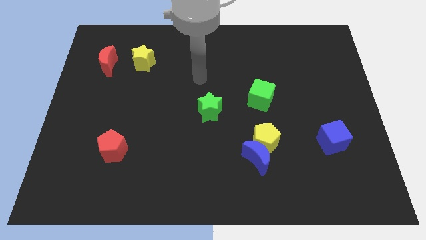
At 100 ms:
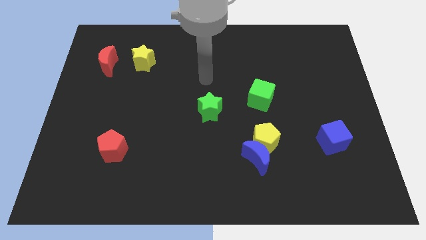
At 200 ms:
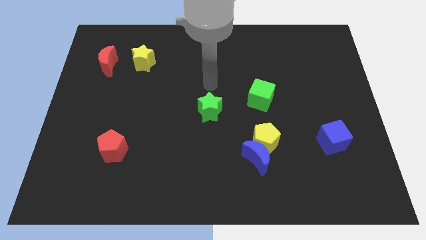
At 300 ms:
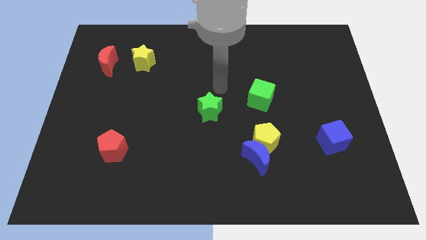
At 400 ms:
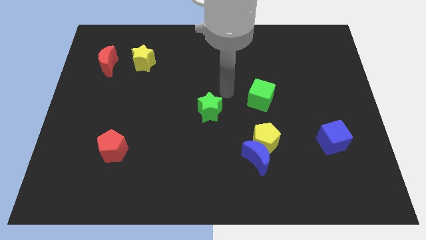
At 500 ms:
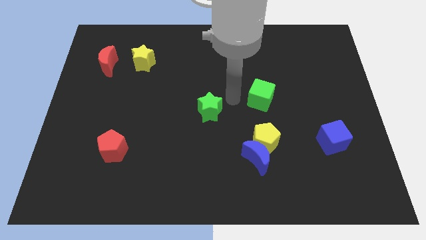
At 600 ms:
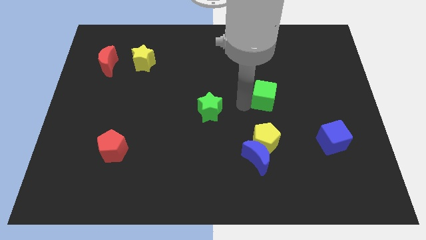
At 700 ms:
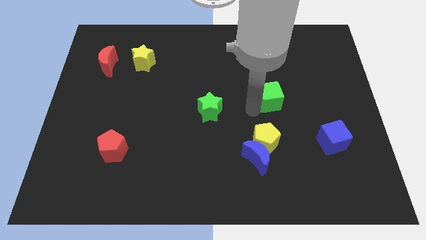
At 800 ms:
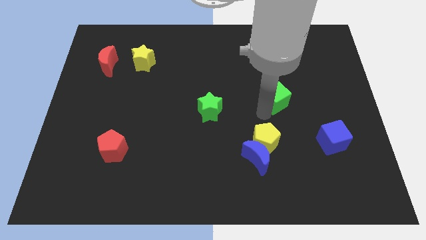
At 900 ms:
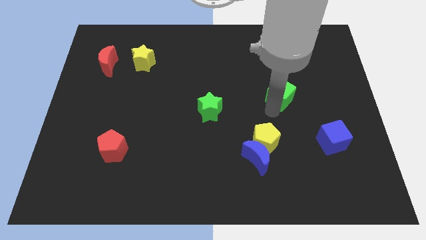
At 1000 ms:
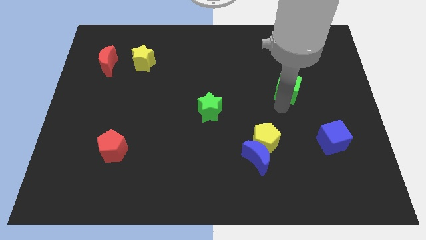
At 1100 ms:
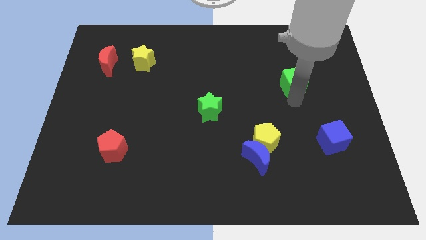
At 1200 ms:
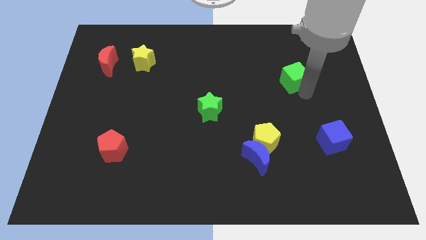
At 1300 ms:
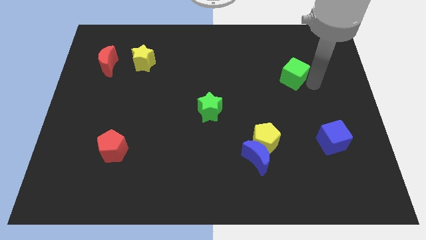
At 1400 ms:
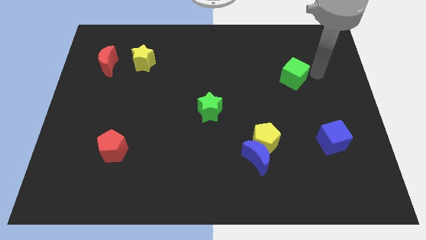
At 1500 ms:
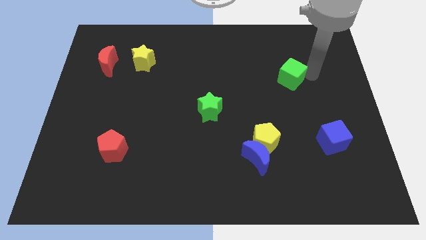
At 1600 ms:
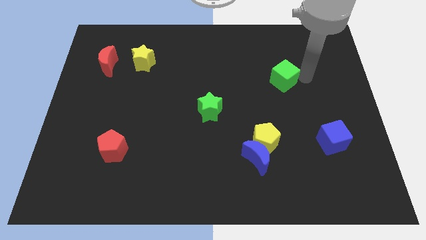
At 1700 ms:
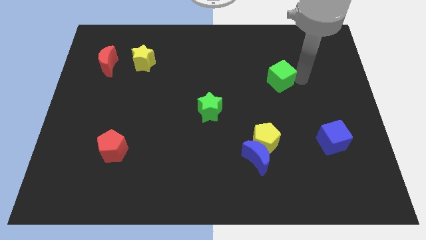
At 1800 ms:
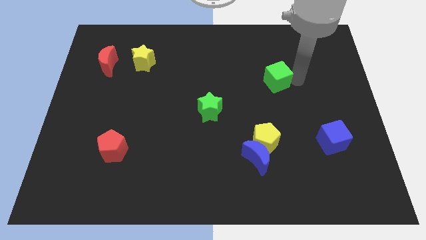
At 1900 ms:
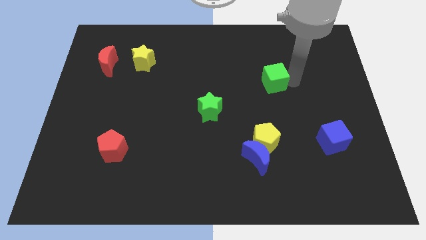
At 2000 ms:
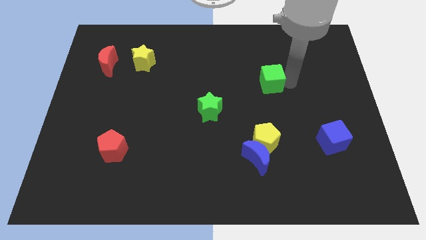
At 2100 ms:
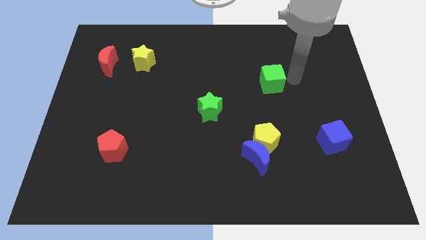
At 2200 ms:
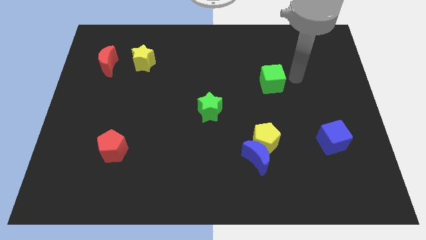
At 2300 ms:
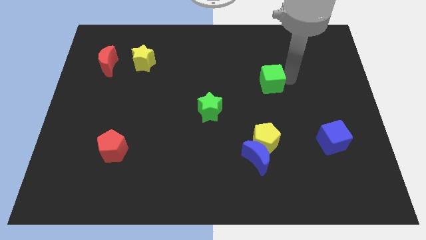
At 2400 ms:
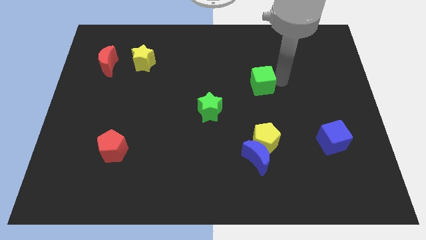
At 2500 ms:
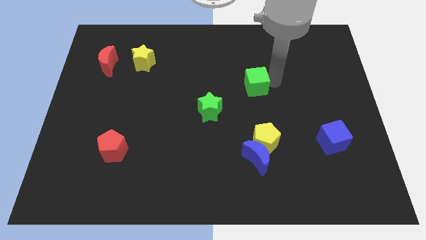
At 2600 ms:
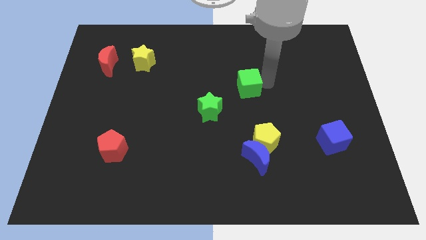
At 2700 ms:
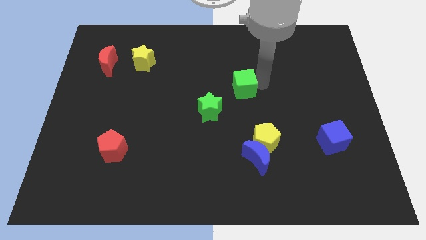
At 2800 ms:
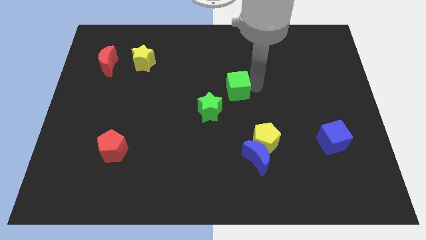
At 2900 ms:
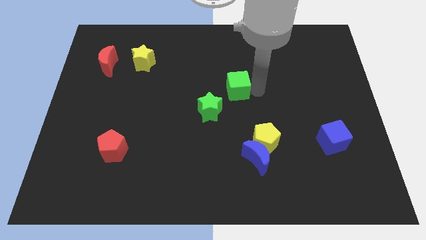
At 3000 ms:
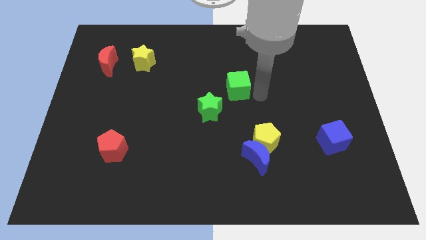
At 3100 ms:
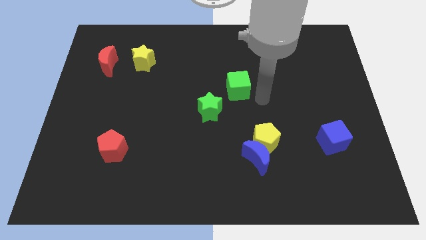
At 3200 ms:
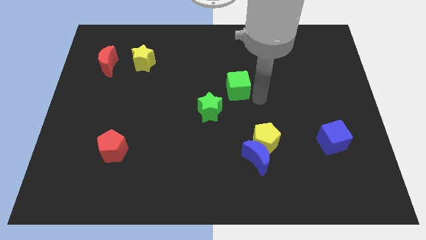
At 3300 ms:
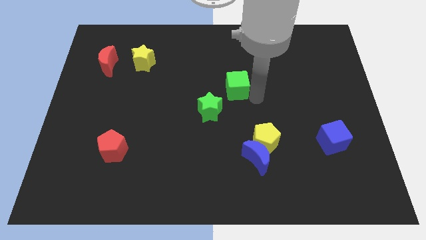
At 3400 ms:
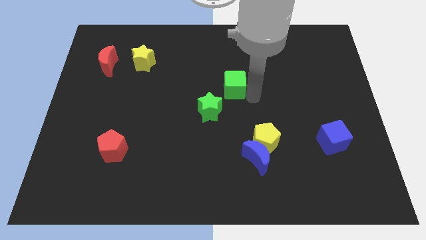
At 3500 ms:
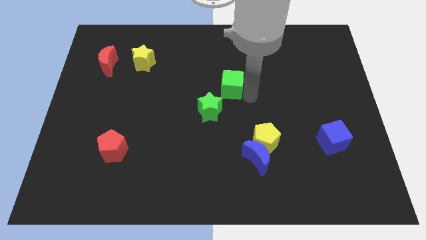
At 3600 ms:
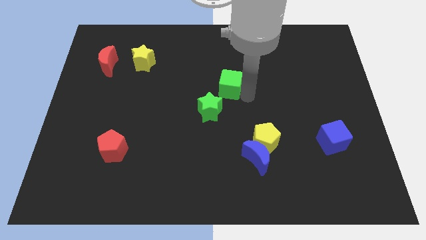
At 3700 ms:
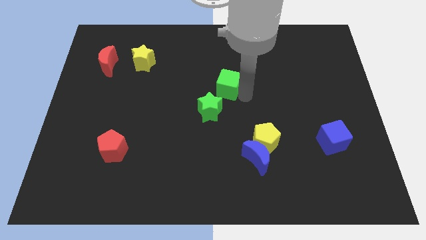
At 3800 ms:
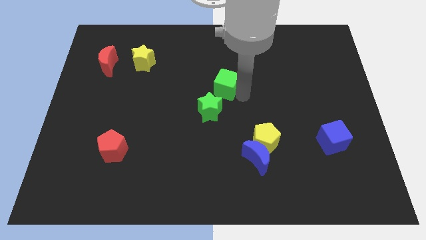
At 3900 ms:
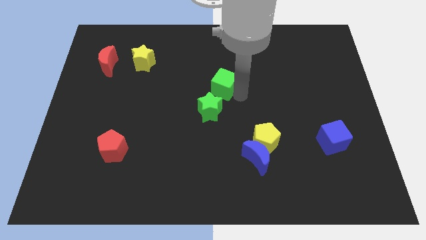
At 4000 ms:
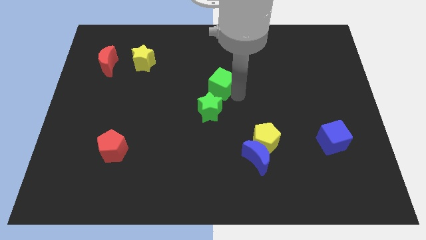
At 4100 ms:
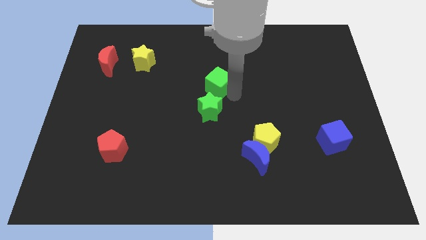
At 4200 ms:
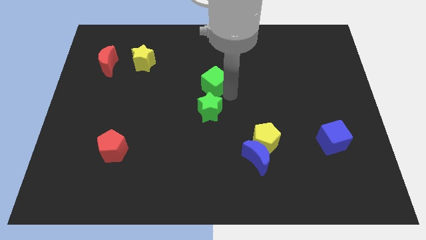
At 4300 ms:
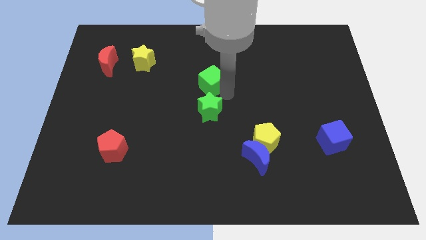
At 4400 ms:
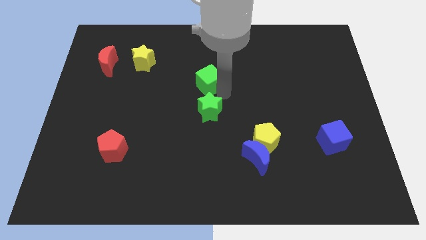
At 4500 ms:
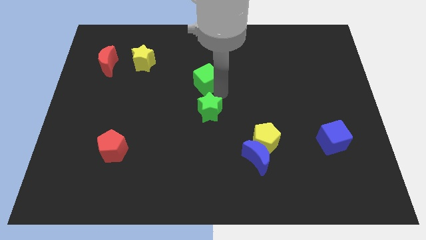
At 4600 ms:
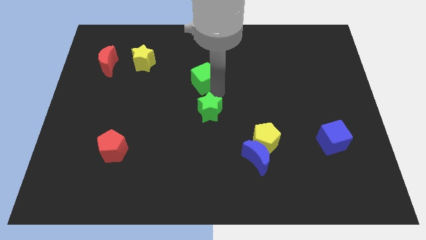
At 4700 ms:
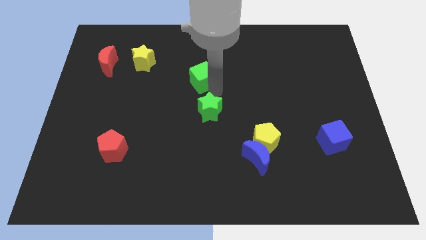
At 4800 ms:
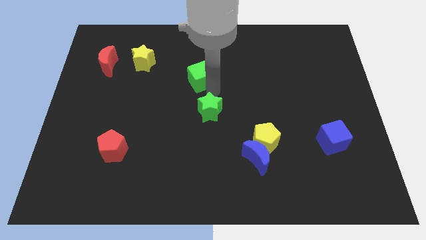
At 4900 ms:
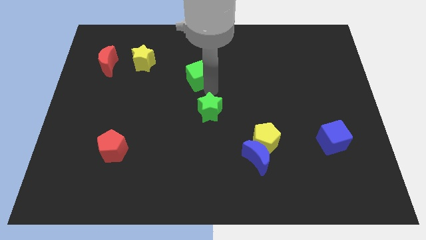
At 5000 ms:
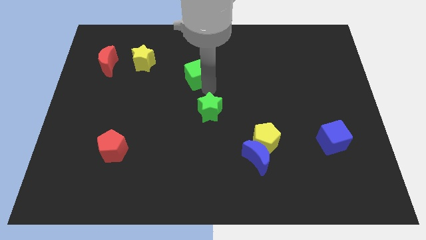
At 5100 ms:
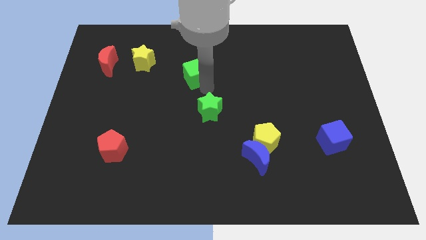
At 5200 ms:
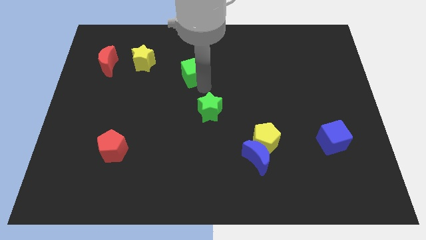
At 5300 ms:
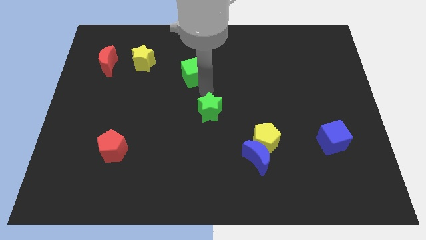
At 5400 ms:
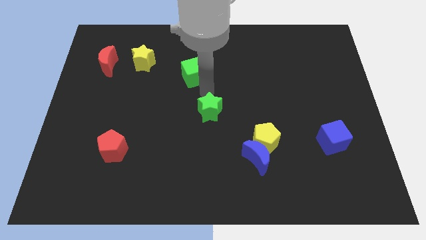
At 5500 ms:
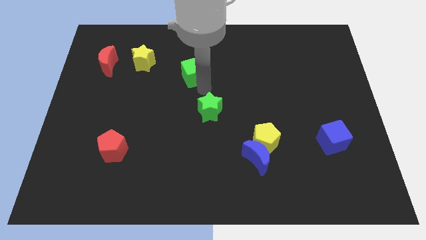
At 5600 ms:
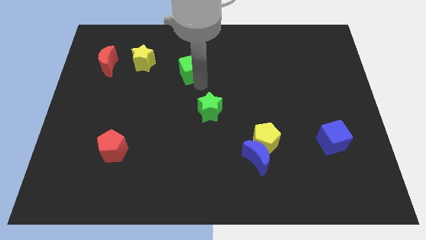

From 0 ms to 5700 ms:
put the green cube to the right of the yellow star

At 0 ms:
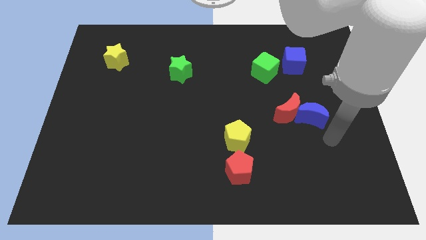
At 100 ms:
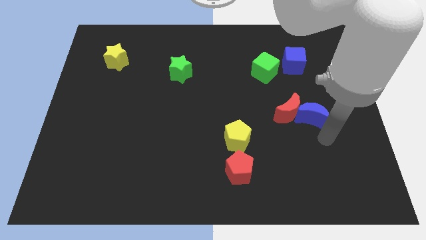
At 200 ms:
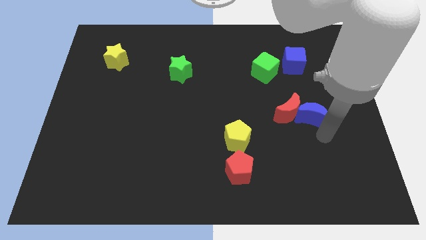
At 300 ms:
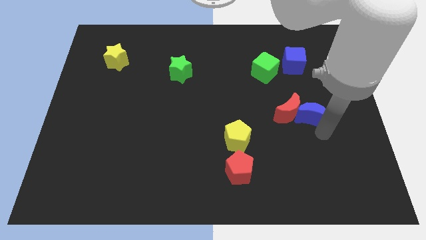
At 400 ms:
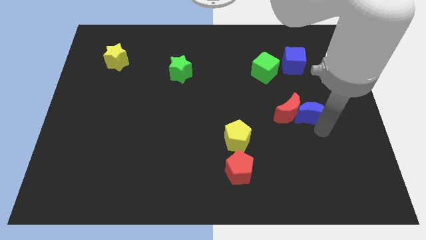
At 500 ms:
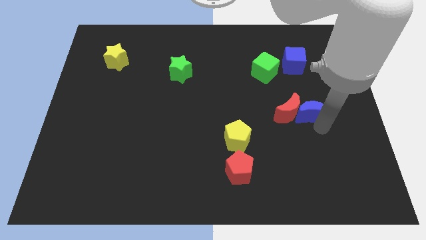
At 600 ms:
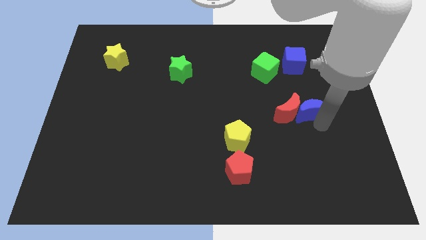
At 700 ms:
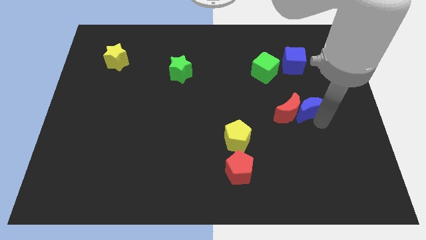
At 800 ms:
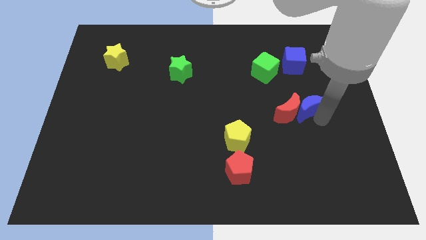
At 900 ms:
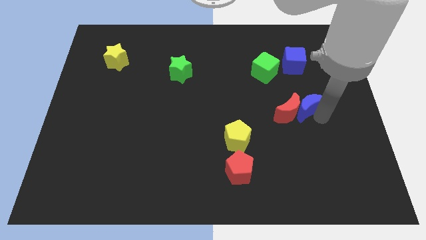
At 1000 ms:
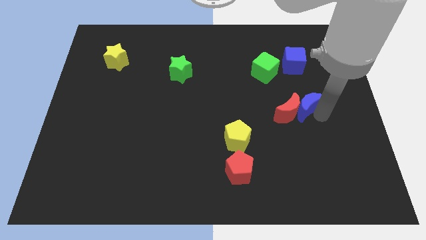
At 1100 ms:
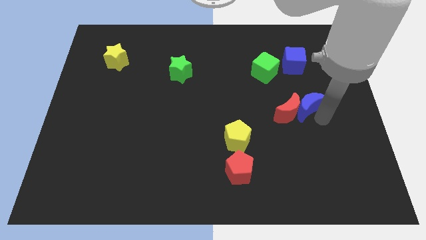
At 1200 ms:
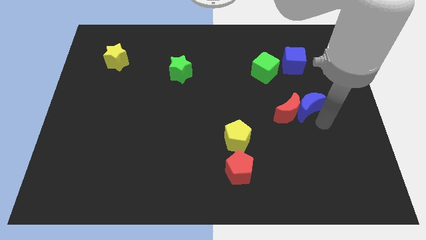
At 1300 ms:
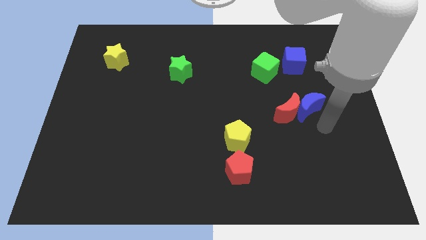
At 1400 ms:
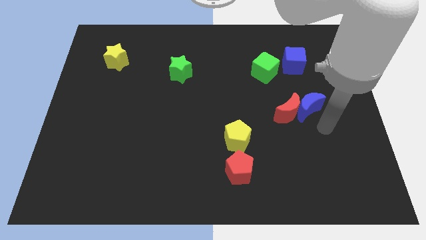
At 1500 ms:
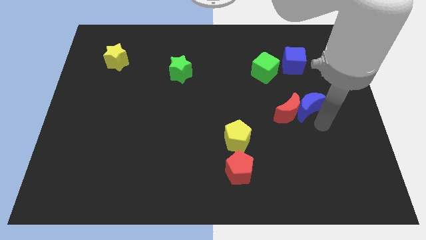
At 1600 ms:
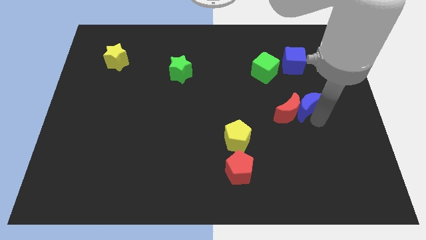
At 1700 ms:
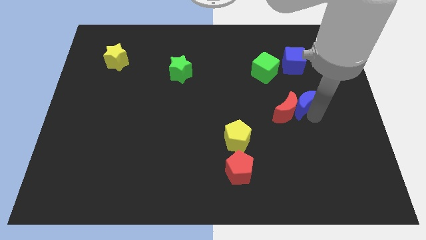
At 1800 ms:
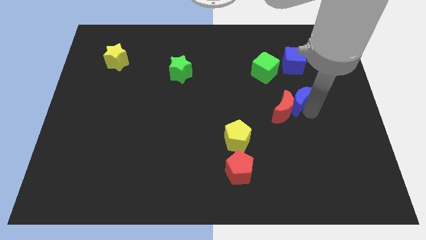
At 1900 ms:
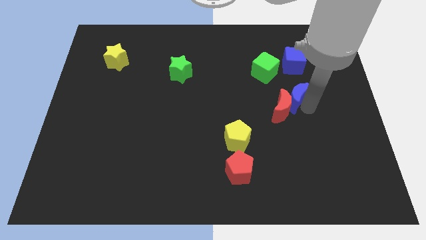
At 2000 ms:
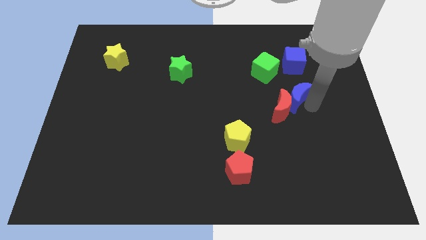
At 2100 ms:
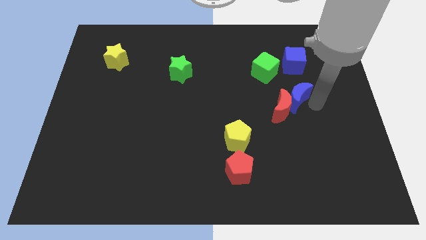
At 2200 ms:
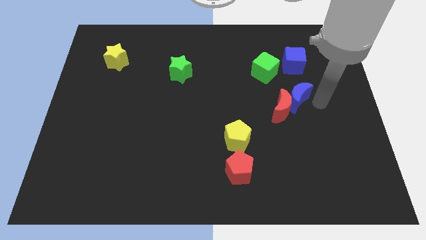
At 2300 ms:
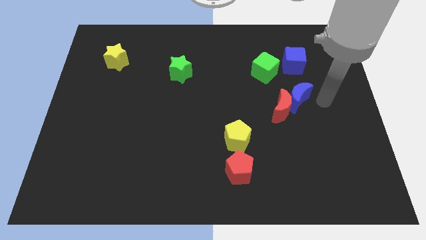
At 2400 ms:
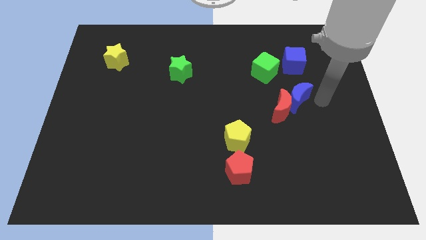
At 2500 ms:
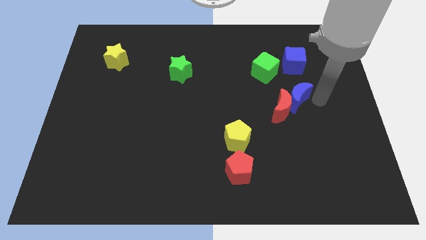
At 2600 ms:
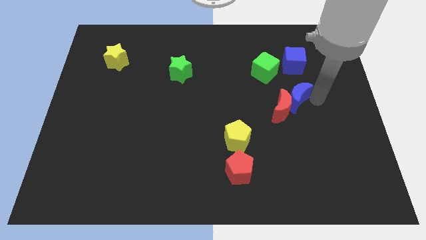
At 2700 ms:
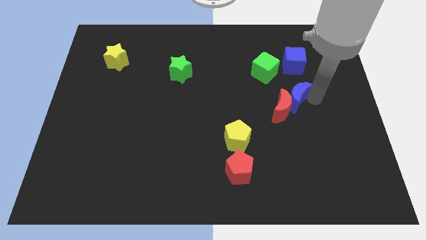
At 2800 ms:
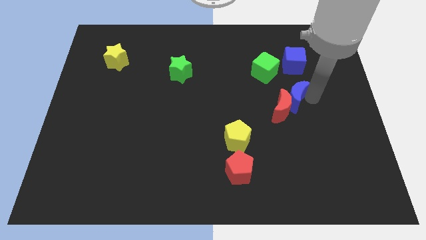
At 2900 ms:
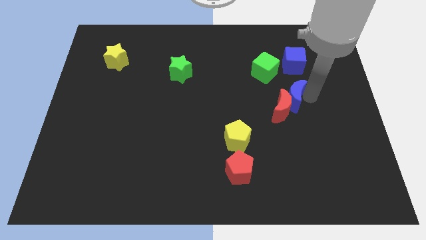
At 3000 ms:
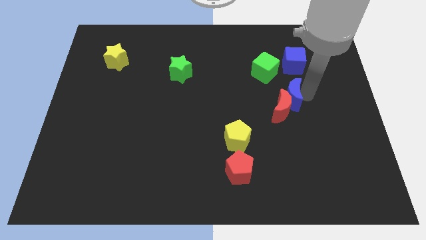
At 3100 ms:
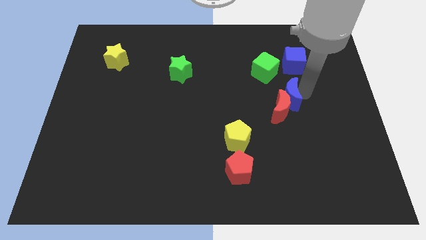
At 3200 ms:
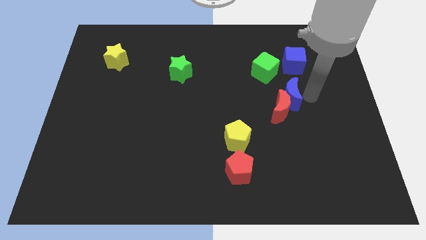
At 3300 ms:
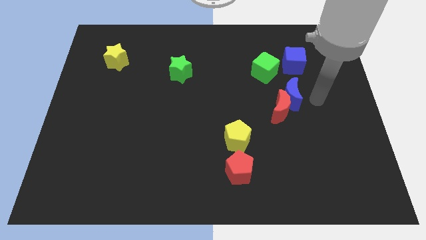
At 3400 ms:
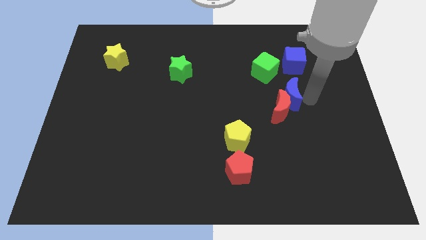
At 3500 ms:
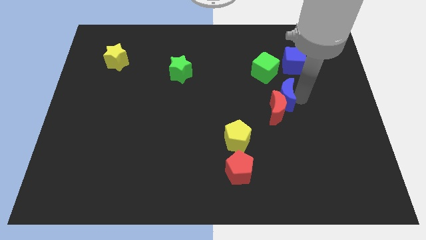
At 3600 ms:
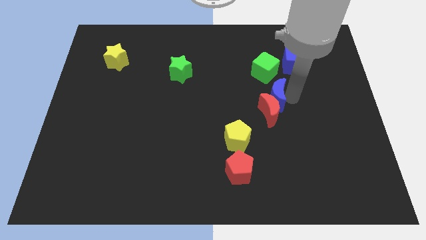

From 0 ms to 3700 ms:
move the blue moon to the top left of the red moon
